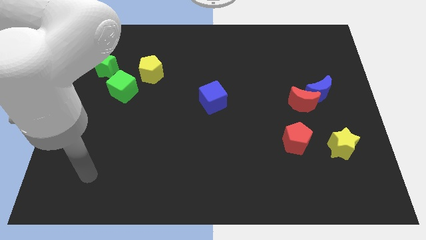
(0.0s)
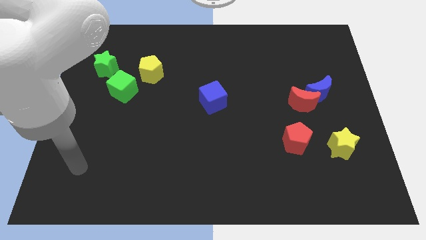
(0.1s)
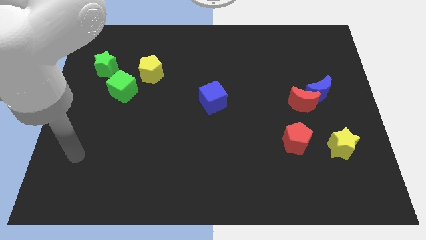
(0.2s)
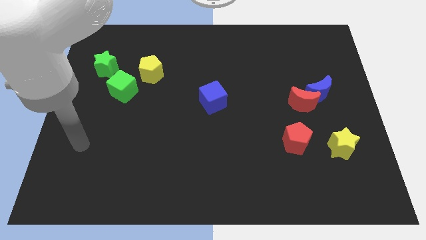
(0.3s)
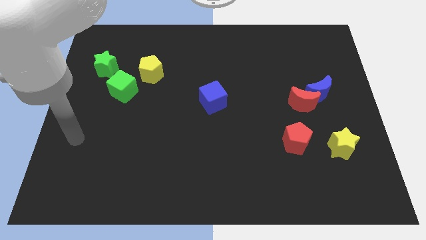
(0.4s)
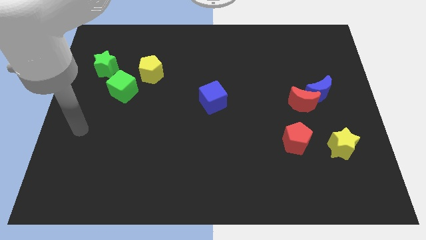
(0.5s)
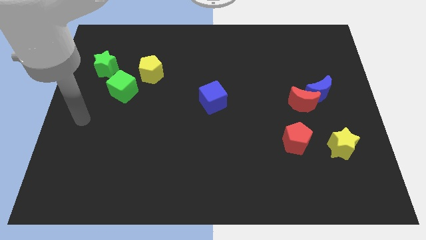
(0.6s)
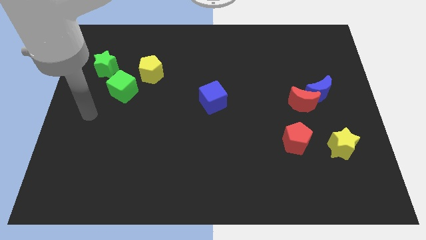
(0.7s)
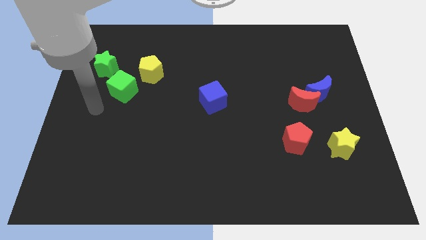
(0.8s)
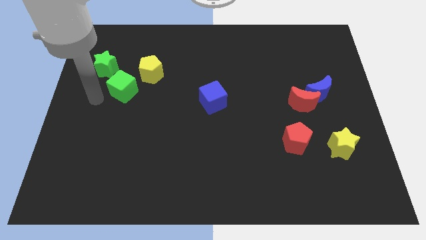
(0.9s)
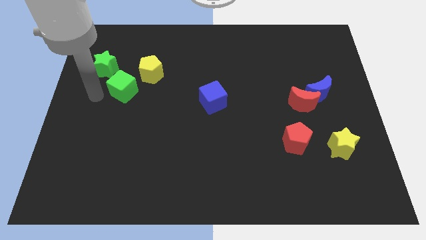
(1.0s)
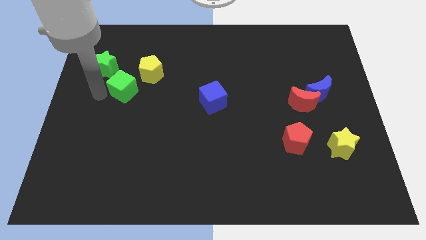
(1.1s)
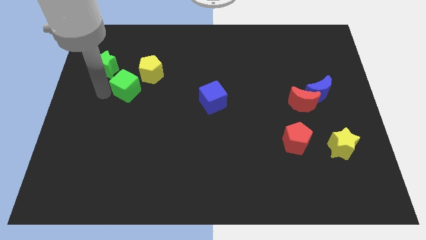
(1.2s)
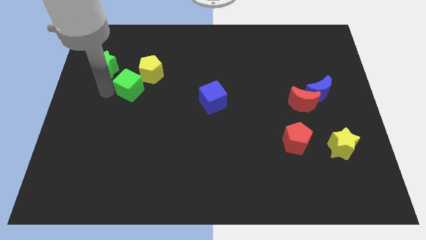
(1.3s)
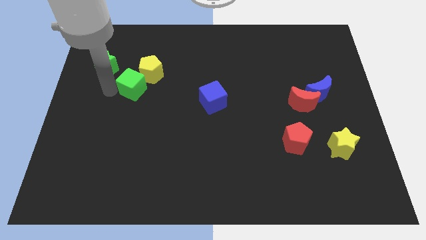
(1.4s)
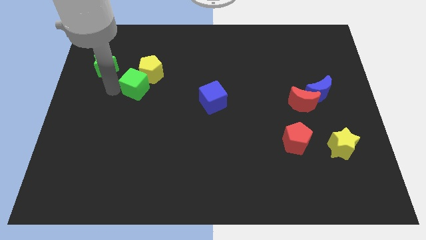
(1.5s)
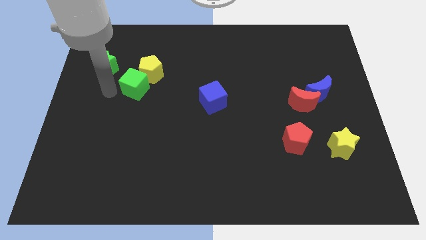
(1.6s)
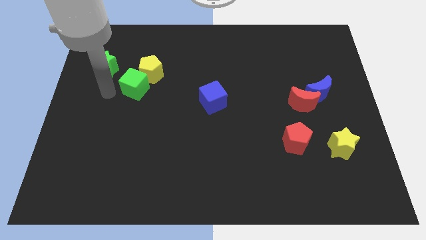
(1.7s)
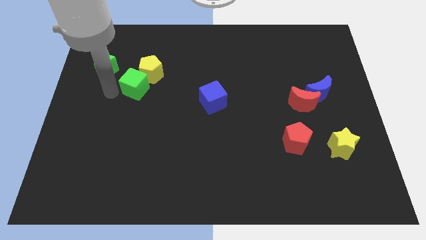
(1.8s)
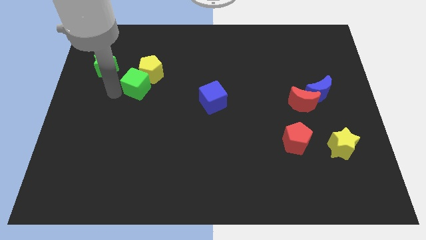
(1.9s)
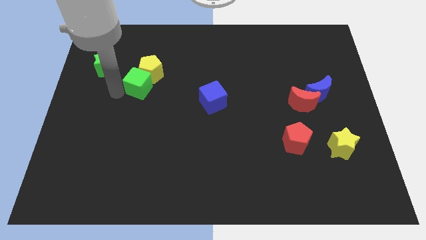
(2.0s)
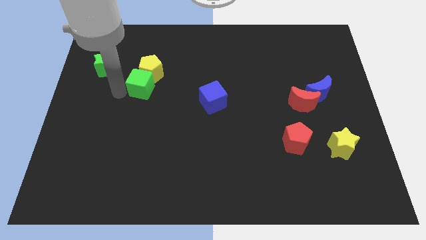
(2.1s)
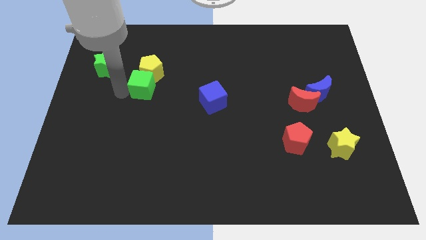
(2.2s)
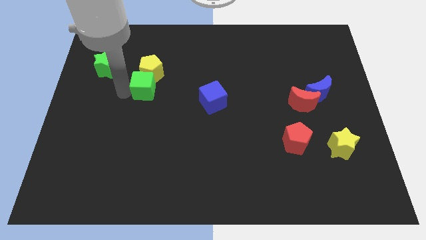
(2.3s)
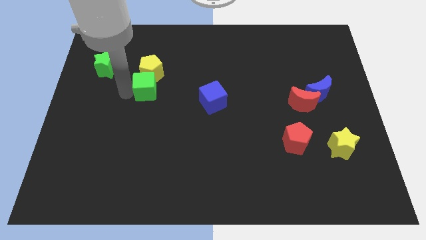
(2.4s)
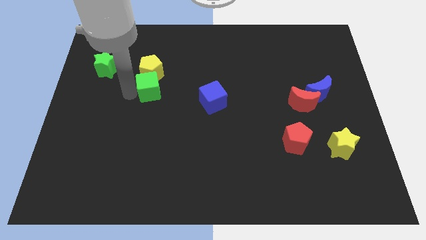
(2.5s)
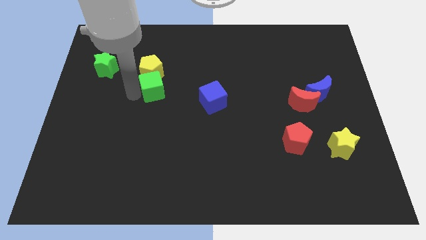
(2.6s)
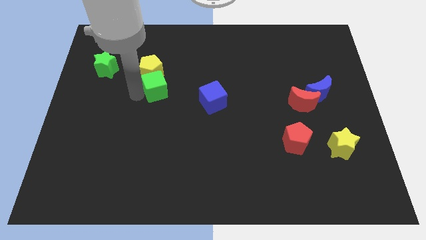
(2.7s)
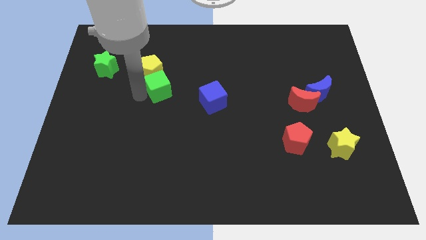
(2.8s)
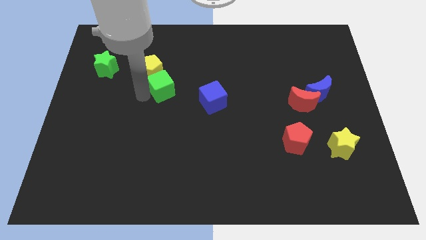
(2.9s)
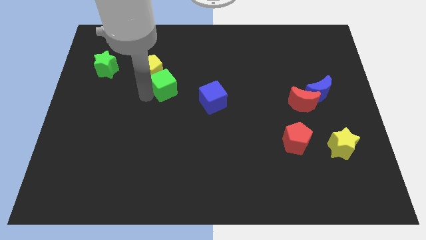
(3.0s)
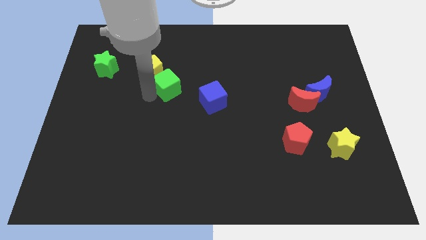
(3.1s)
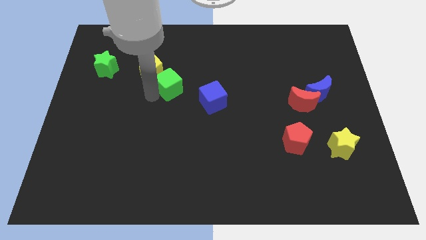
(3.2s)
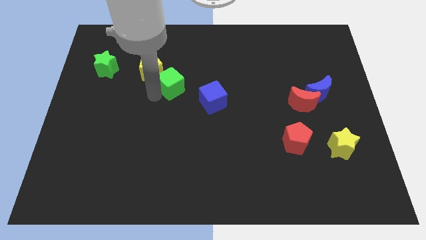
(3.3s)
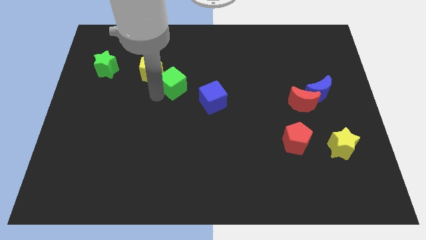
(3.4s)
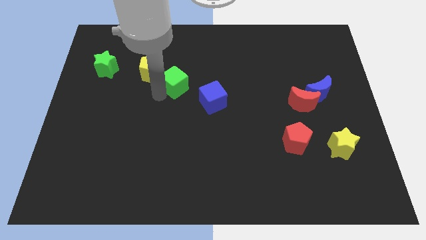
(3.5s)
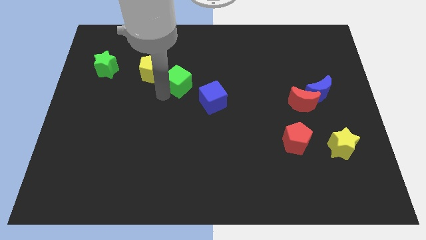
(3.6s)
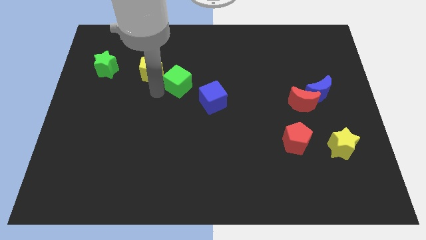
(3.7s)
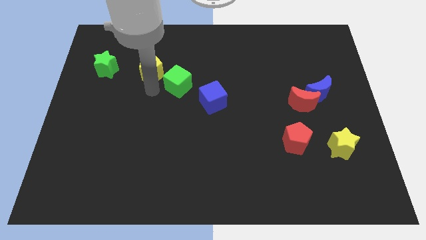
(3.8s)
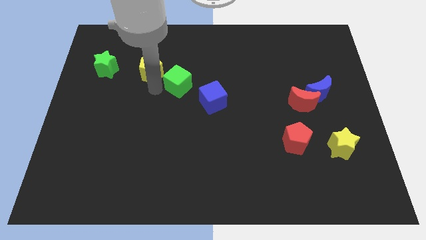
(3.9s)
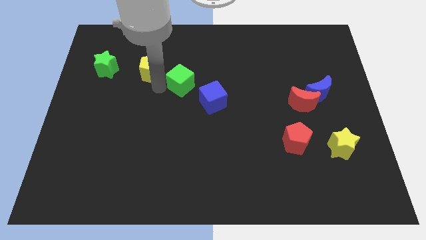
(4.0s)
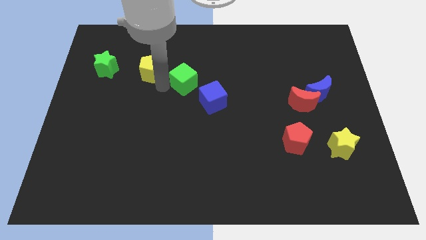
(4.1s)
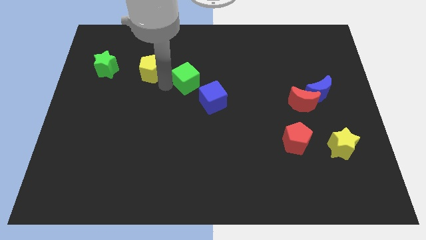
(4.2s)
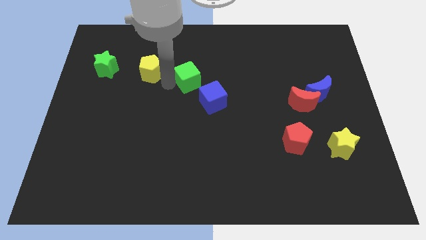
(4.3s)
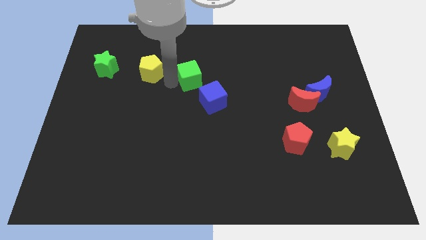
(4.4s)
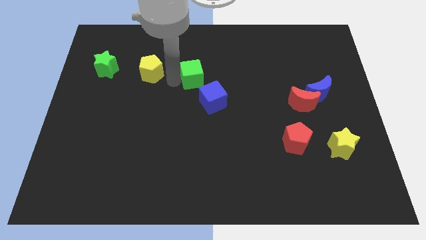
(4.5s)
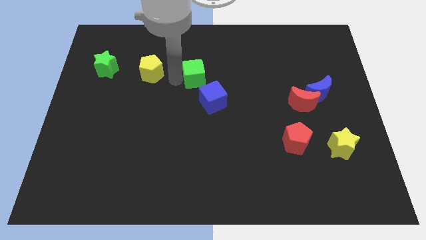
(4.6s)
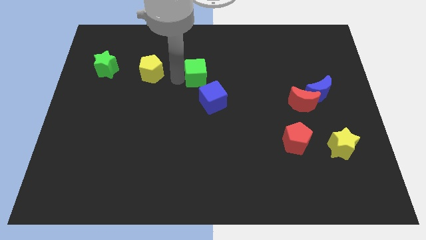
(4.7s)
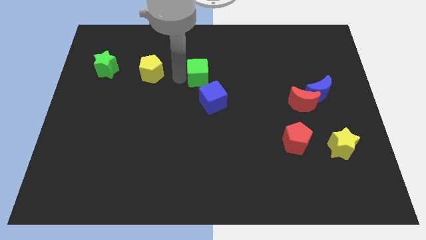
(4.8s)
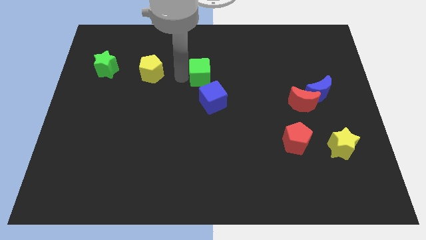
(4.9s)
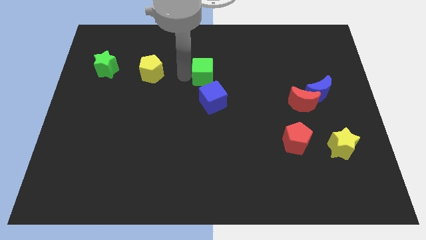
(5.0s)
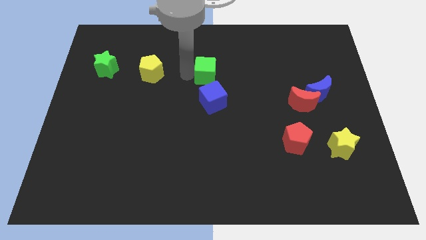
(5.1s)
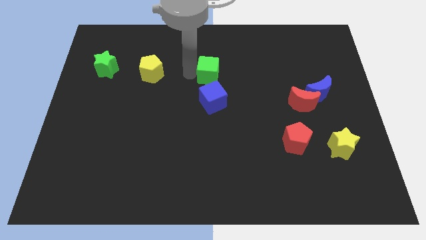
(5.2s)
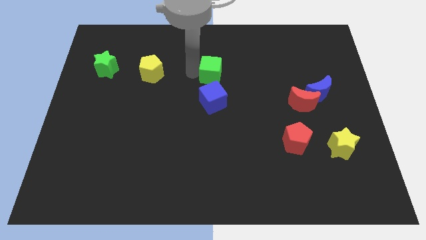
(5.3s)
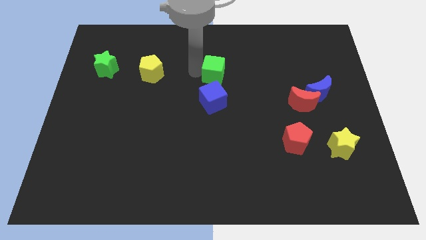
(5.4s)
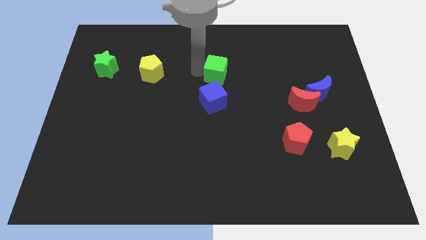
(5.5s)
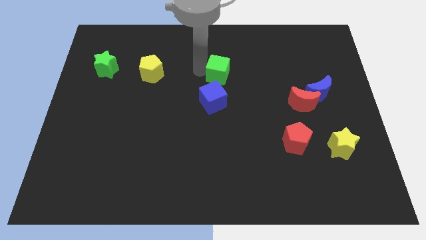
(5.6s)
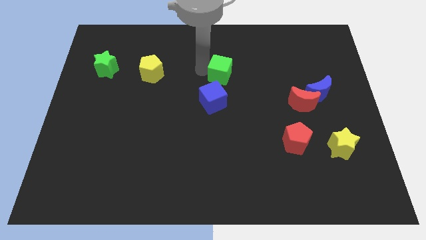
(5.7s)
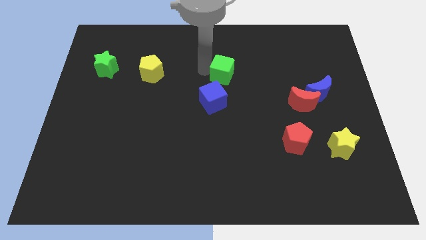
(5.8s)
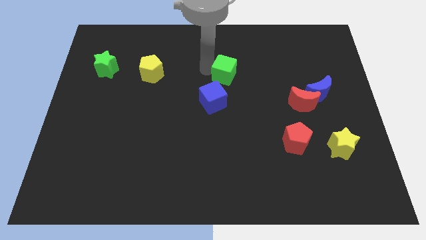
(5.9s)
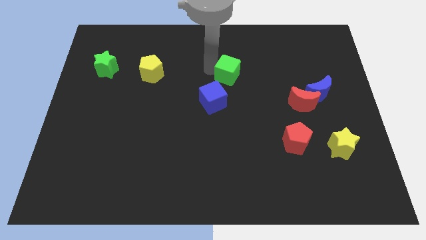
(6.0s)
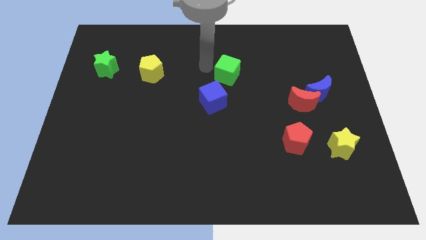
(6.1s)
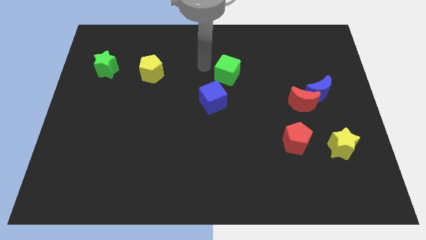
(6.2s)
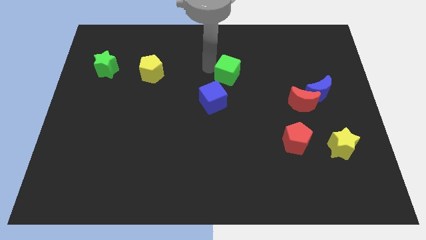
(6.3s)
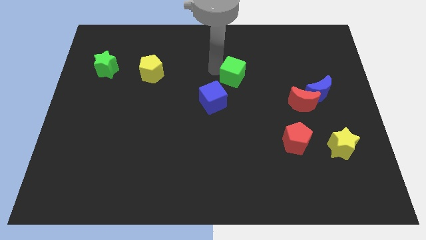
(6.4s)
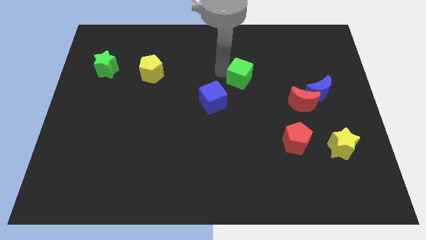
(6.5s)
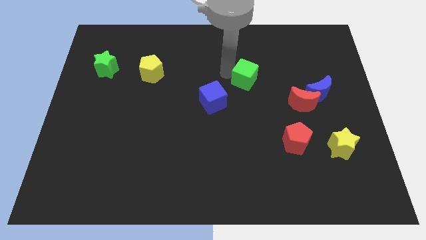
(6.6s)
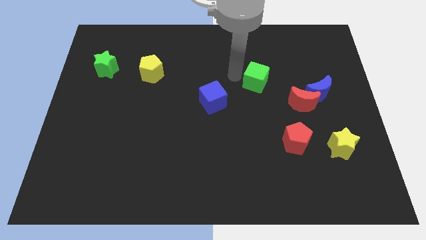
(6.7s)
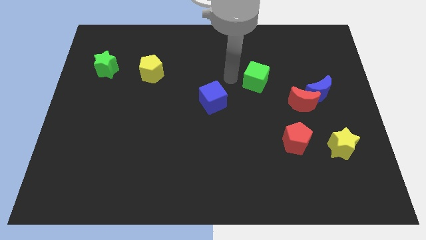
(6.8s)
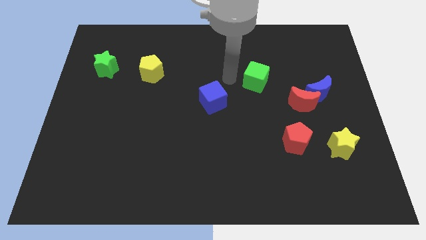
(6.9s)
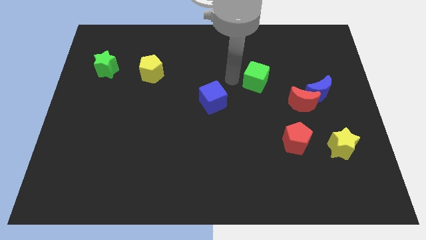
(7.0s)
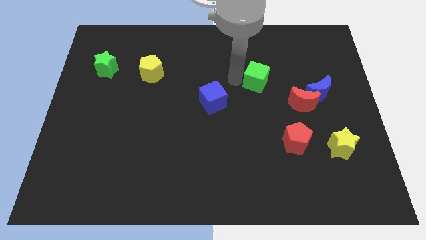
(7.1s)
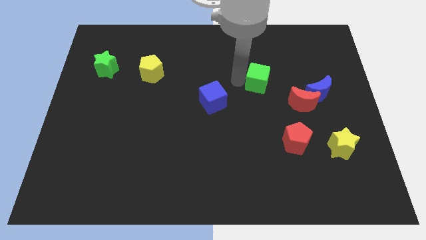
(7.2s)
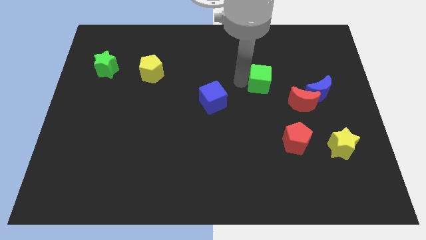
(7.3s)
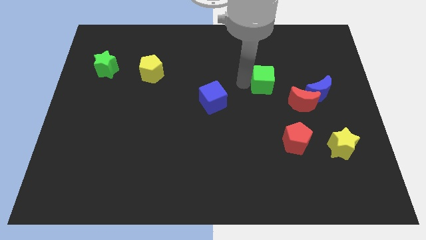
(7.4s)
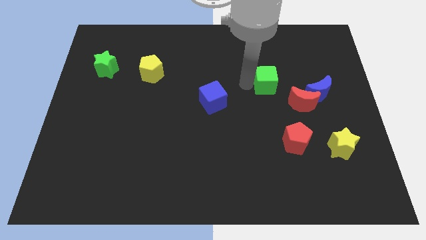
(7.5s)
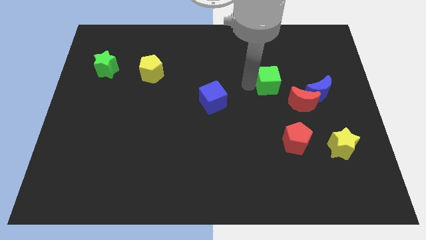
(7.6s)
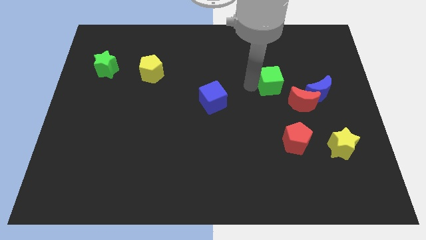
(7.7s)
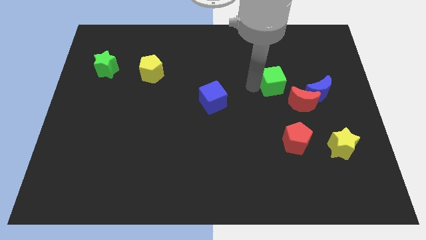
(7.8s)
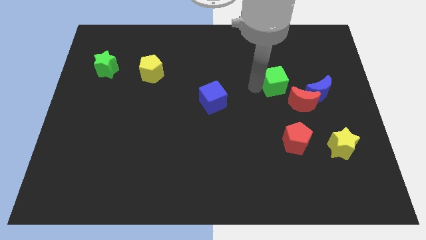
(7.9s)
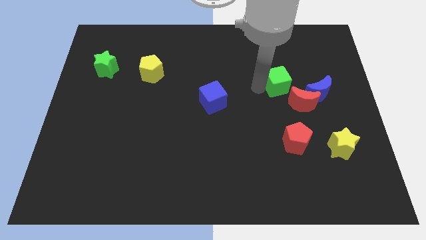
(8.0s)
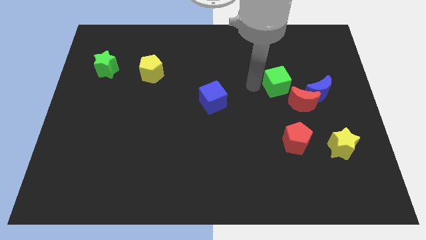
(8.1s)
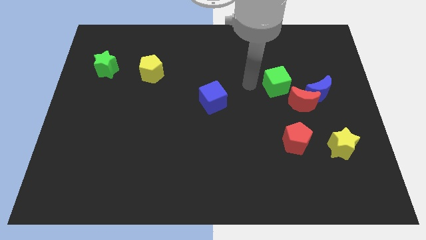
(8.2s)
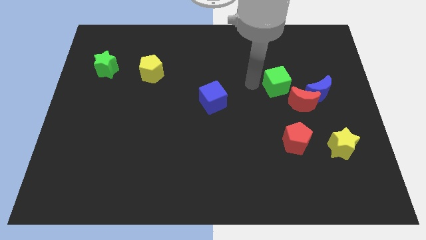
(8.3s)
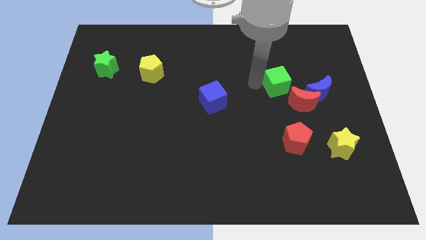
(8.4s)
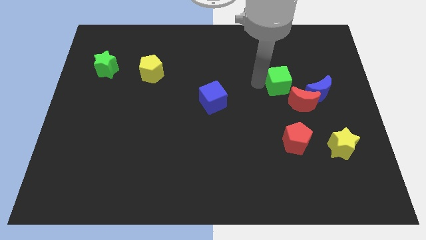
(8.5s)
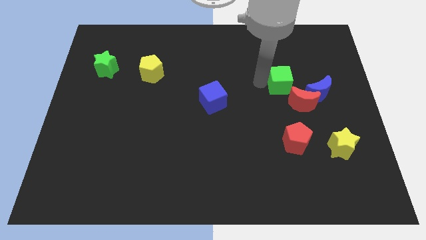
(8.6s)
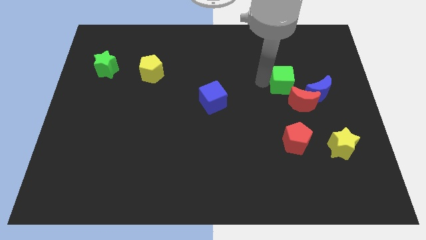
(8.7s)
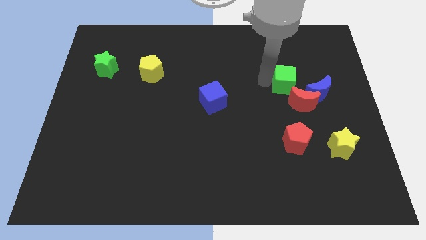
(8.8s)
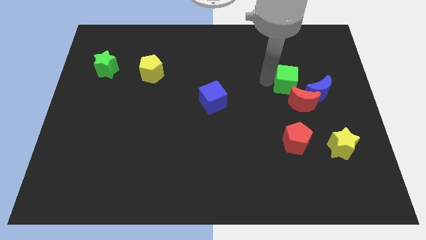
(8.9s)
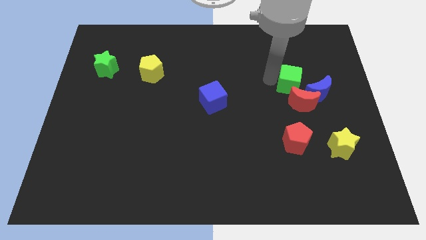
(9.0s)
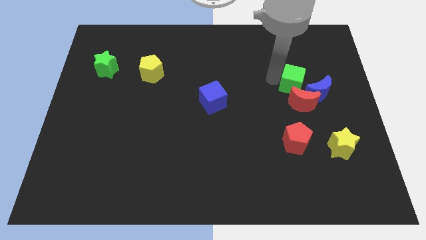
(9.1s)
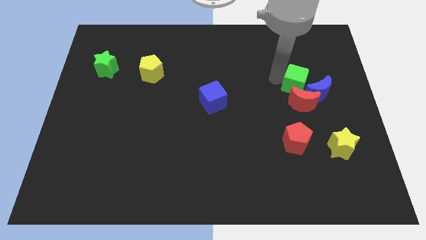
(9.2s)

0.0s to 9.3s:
push the green cube next to the blue moon
